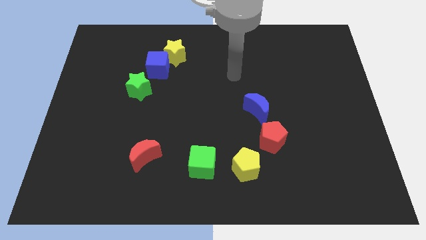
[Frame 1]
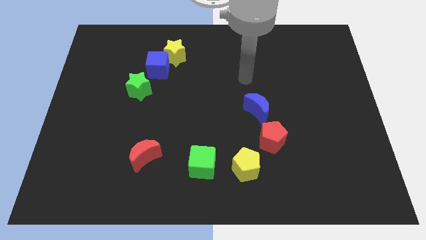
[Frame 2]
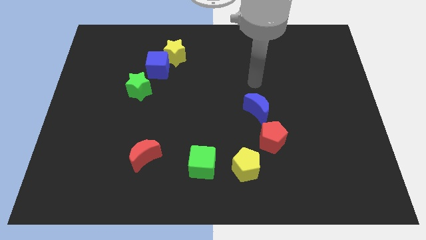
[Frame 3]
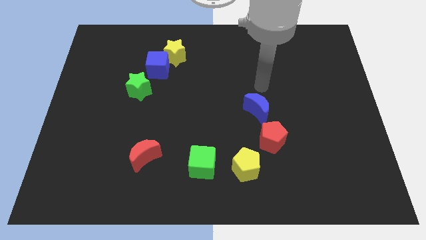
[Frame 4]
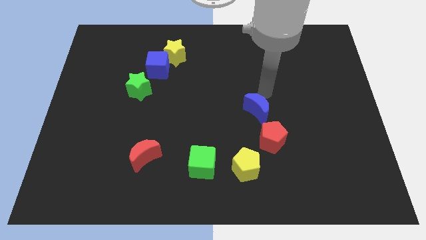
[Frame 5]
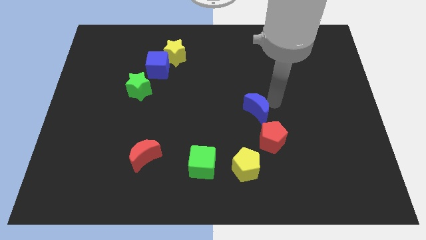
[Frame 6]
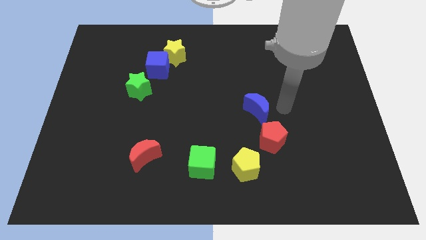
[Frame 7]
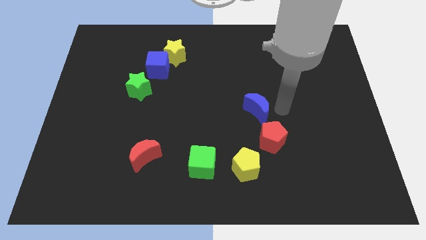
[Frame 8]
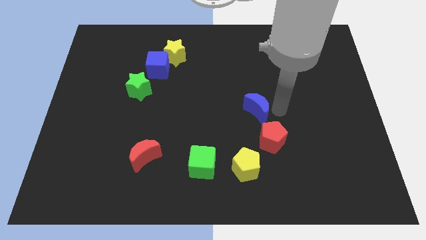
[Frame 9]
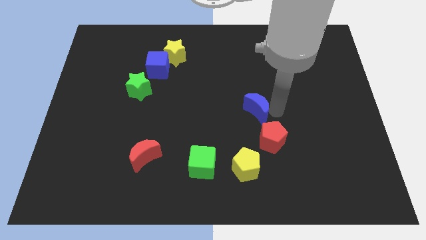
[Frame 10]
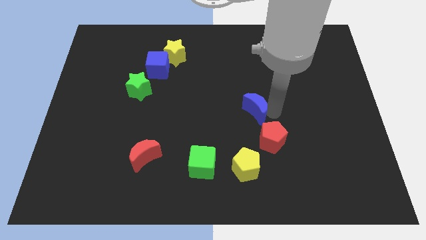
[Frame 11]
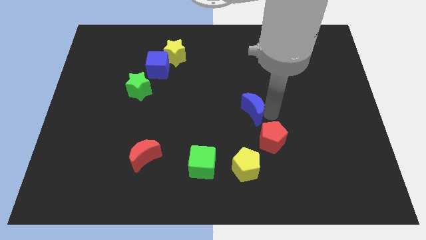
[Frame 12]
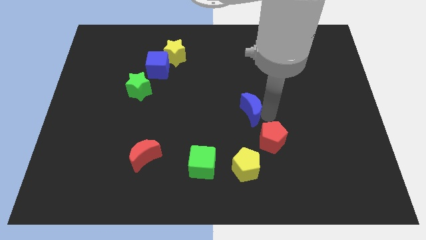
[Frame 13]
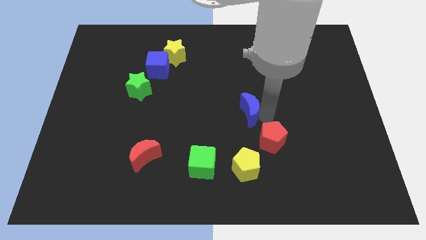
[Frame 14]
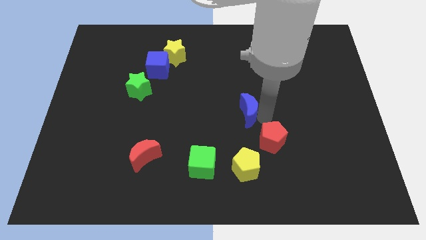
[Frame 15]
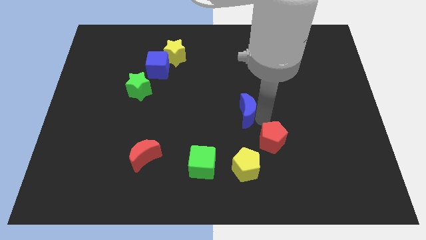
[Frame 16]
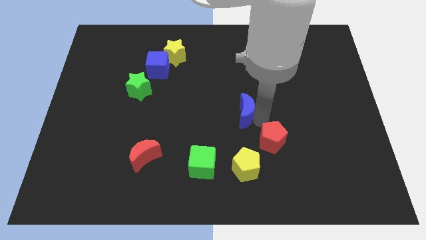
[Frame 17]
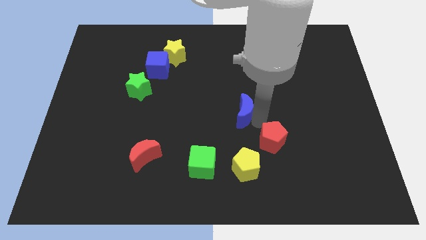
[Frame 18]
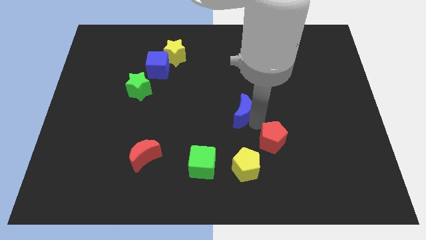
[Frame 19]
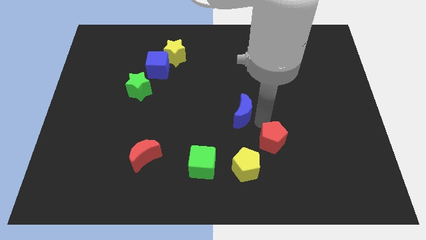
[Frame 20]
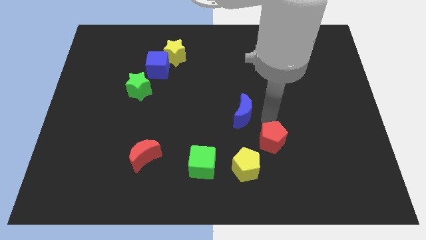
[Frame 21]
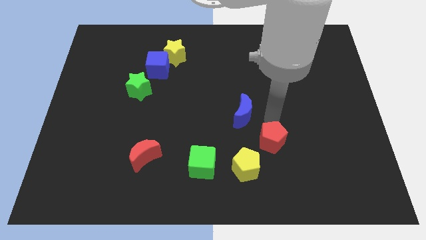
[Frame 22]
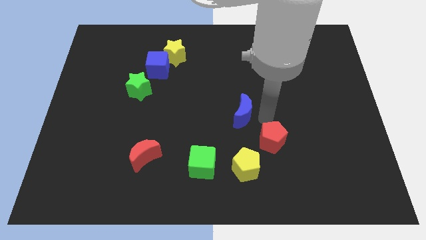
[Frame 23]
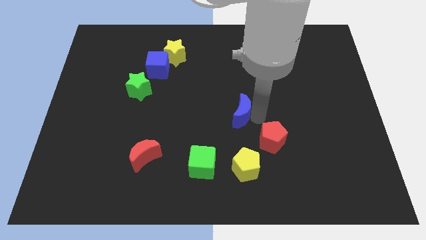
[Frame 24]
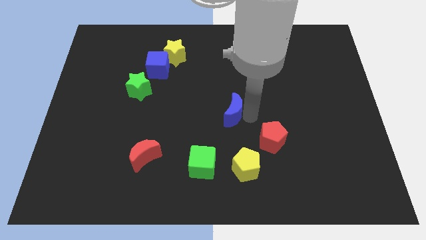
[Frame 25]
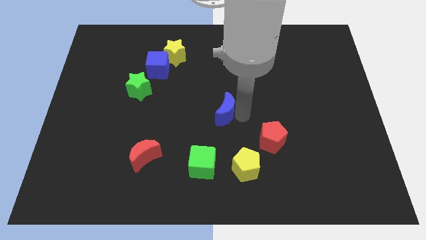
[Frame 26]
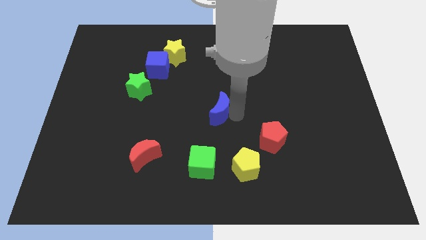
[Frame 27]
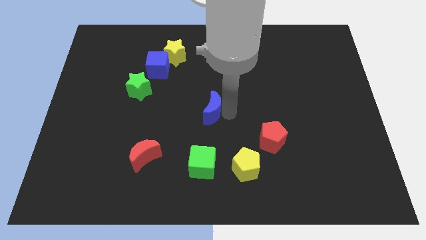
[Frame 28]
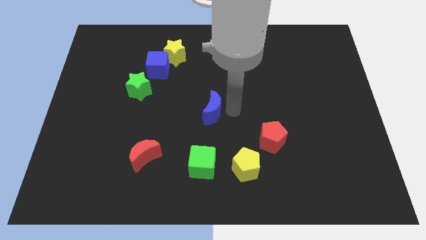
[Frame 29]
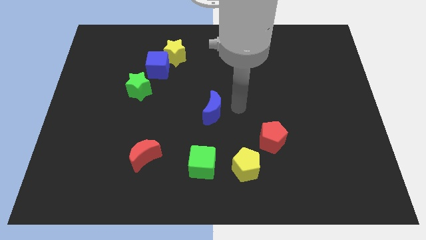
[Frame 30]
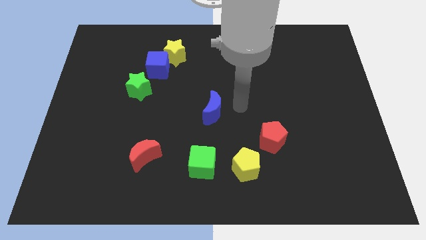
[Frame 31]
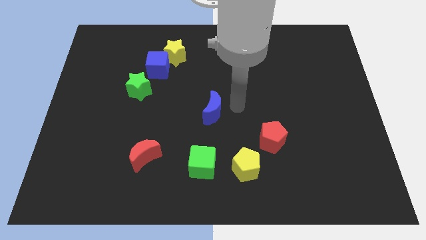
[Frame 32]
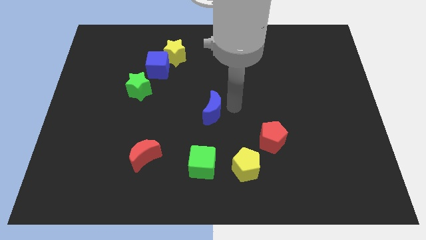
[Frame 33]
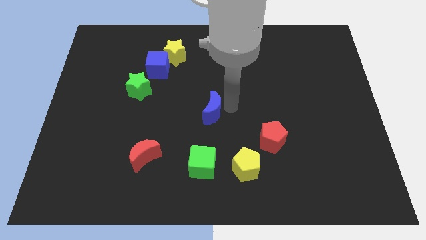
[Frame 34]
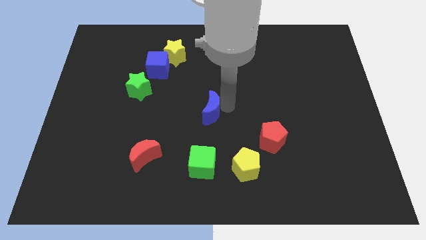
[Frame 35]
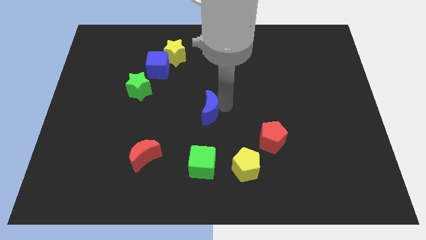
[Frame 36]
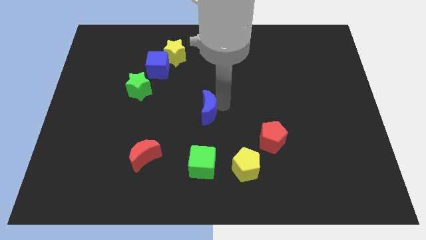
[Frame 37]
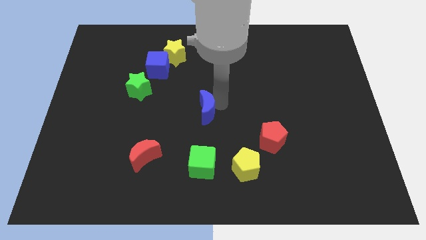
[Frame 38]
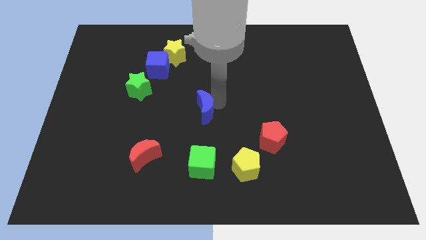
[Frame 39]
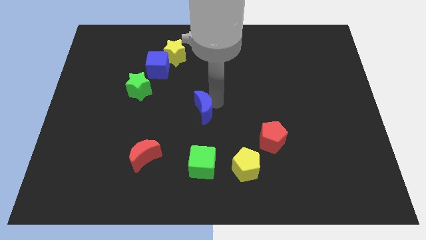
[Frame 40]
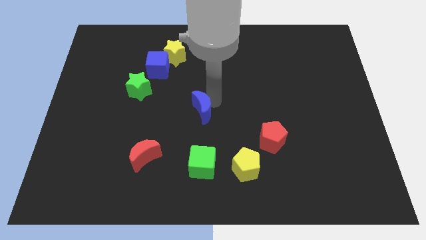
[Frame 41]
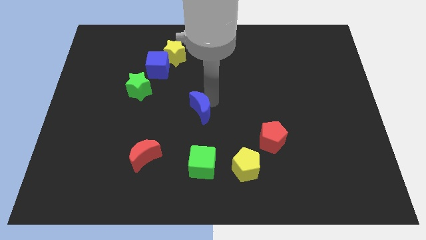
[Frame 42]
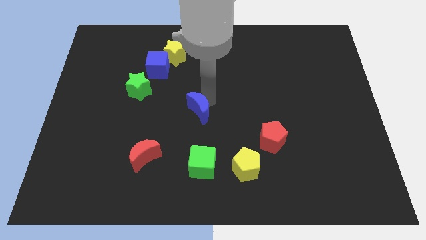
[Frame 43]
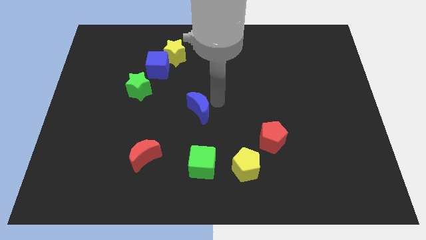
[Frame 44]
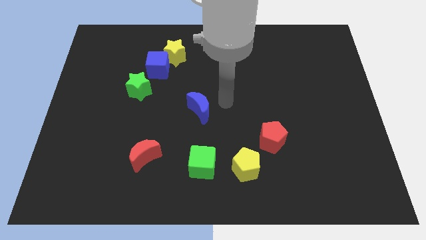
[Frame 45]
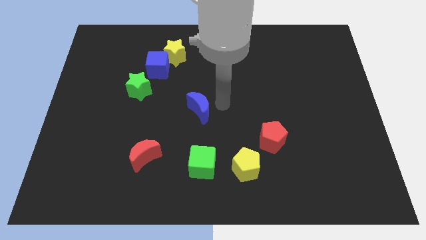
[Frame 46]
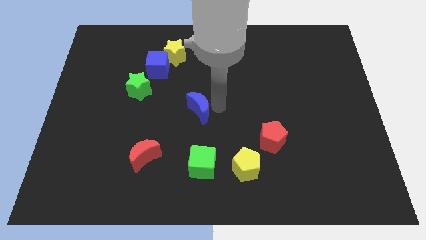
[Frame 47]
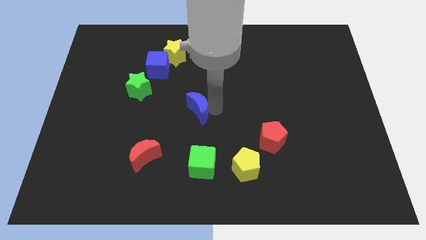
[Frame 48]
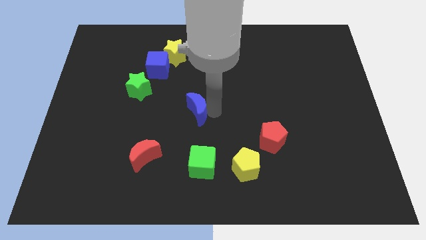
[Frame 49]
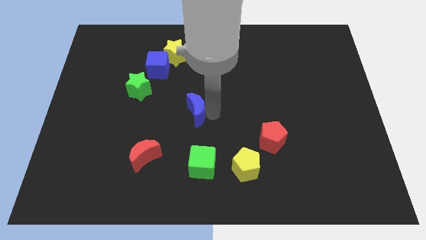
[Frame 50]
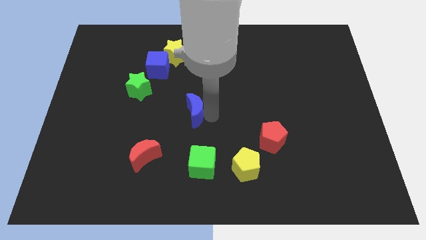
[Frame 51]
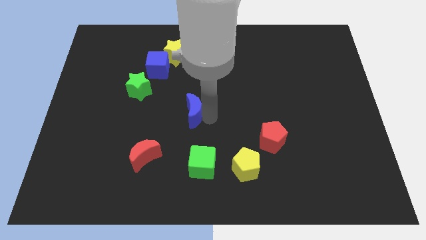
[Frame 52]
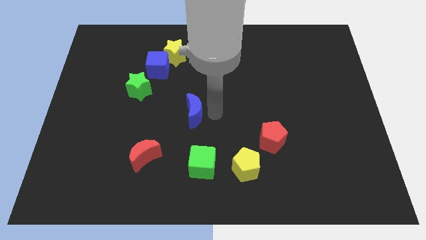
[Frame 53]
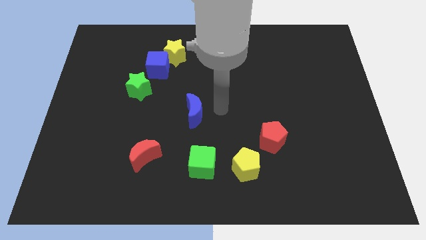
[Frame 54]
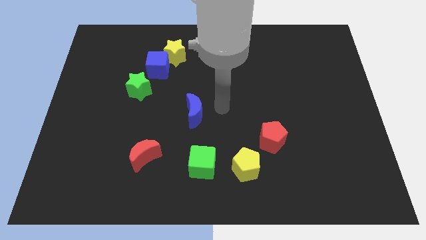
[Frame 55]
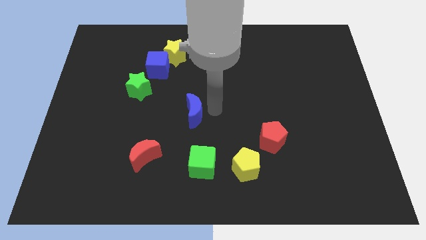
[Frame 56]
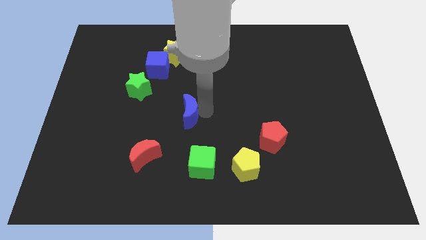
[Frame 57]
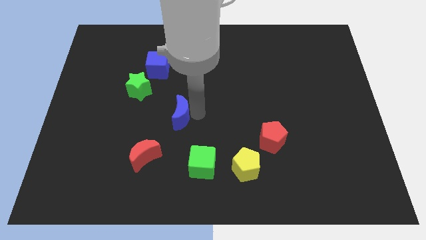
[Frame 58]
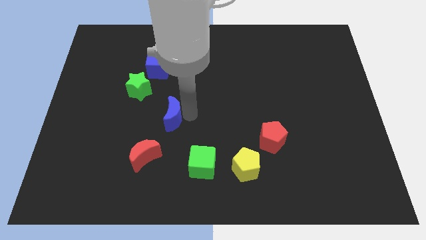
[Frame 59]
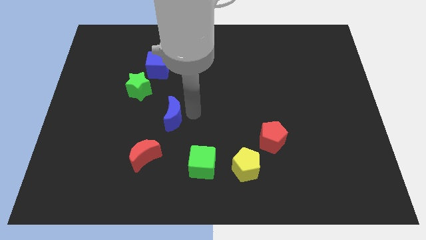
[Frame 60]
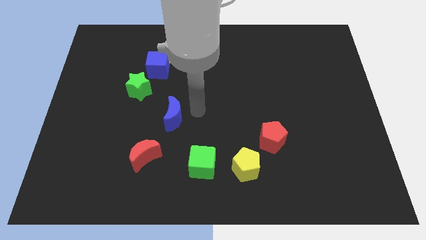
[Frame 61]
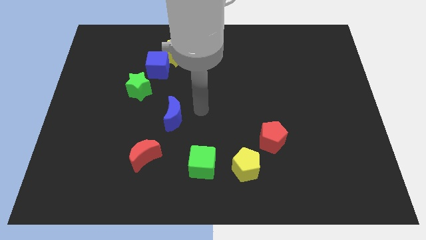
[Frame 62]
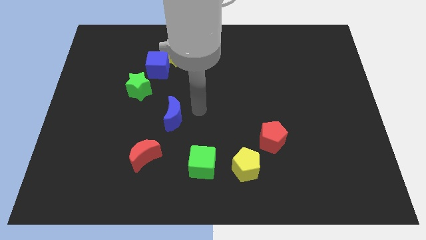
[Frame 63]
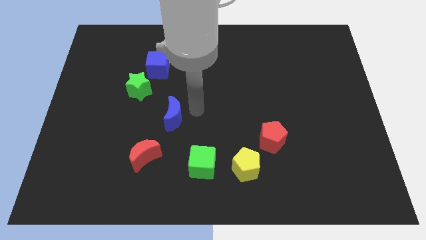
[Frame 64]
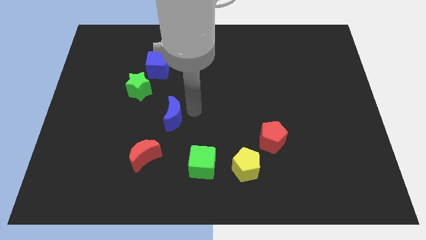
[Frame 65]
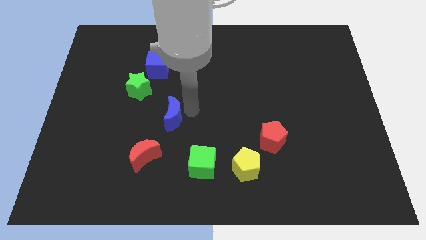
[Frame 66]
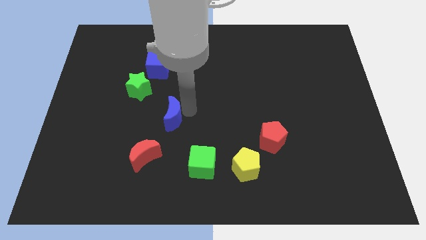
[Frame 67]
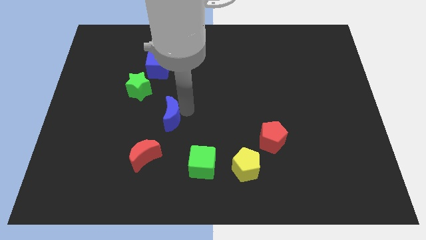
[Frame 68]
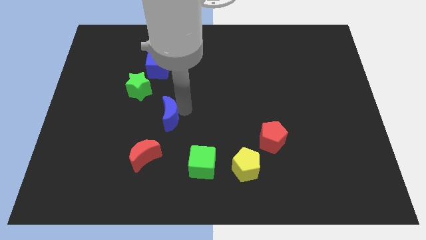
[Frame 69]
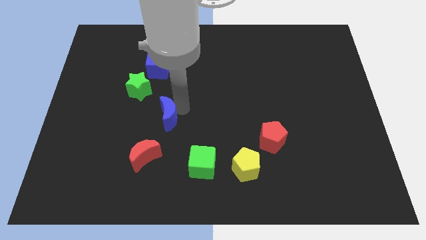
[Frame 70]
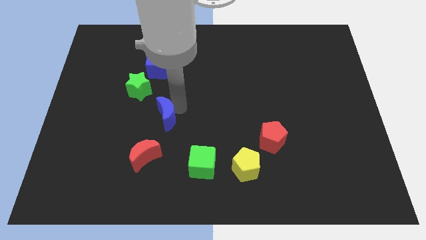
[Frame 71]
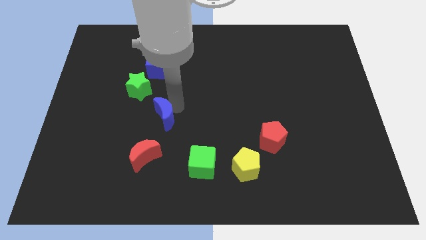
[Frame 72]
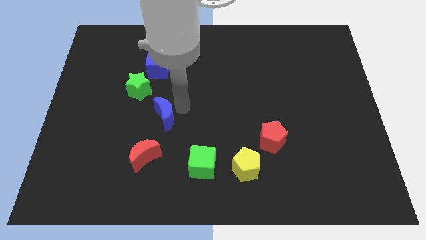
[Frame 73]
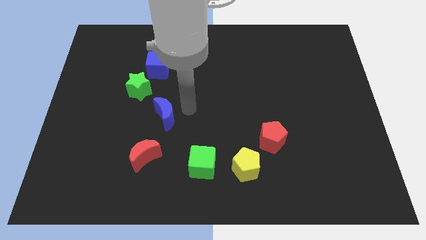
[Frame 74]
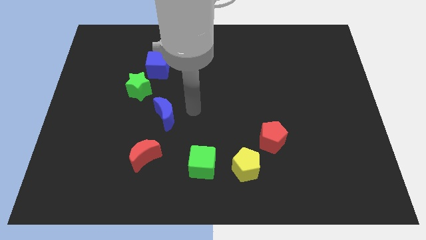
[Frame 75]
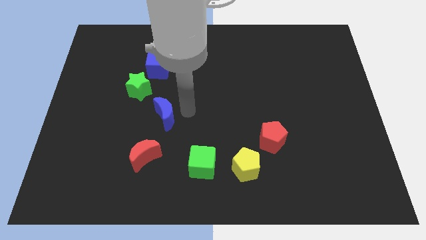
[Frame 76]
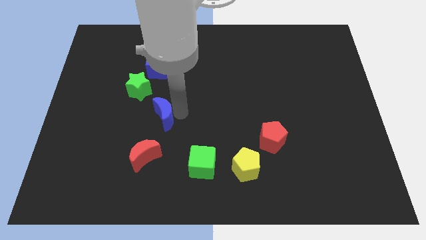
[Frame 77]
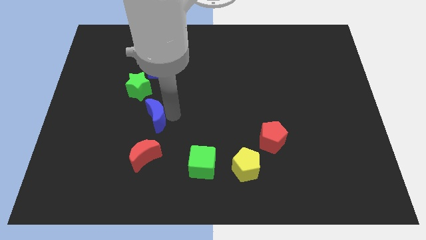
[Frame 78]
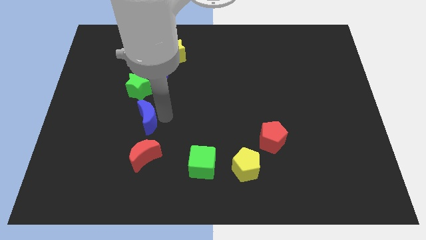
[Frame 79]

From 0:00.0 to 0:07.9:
push the blue moon to the bottom of the green star
